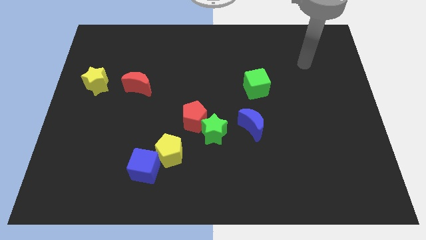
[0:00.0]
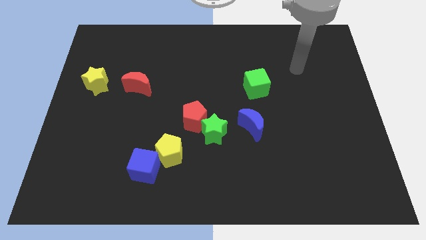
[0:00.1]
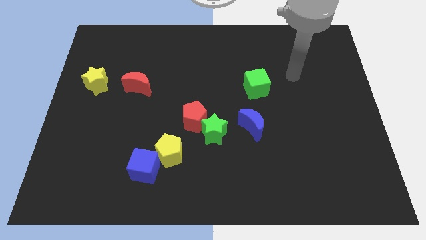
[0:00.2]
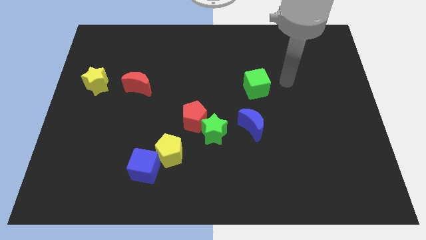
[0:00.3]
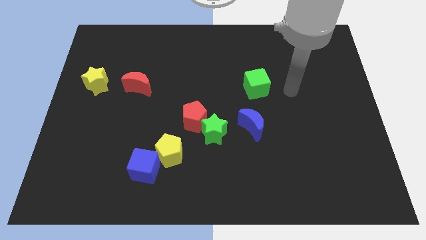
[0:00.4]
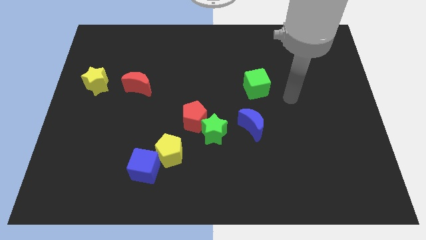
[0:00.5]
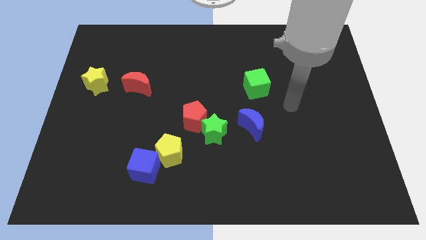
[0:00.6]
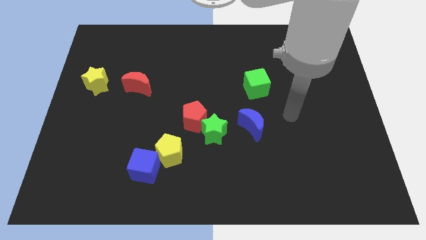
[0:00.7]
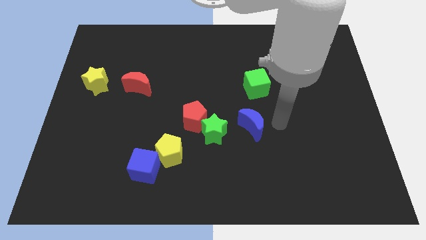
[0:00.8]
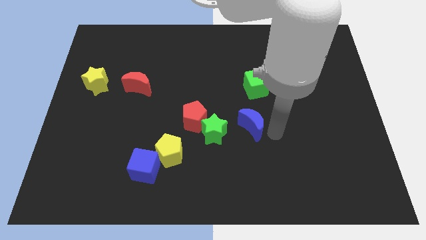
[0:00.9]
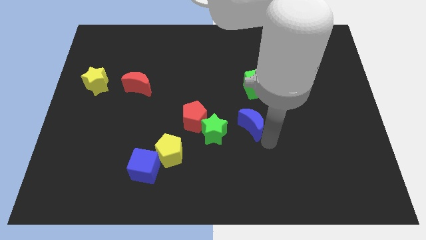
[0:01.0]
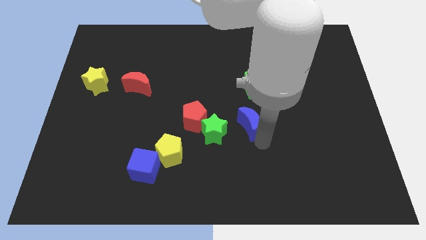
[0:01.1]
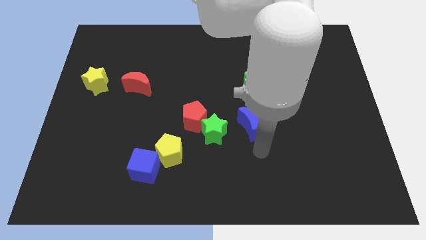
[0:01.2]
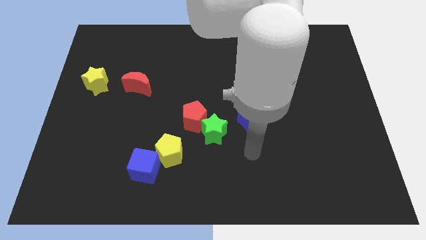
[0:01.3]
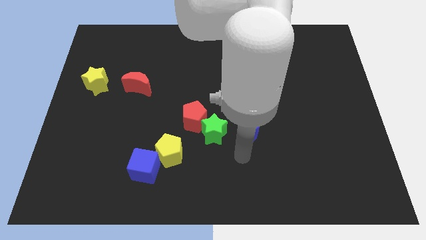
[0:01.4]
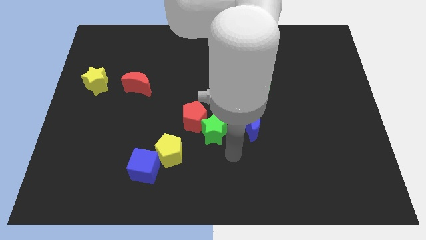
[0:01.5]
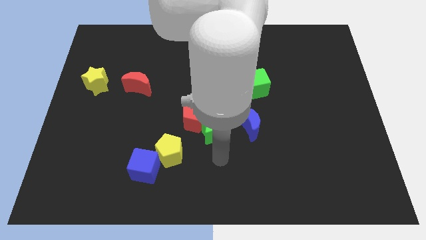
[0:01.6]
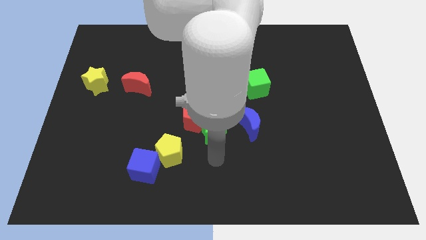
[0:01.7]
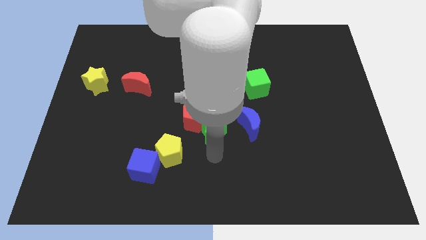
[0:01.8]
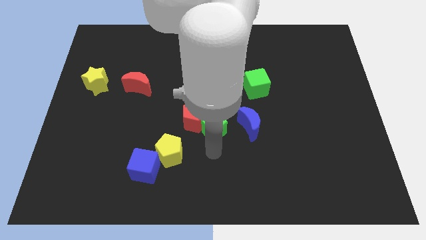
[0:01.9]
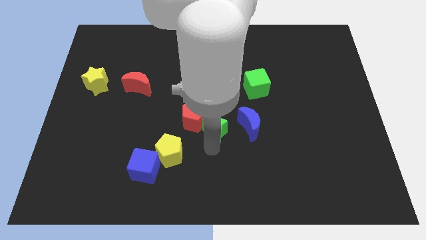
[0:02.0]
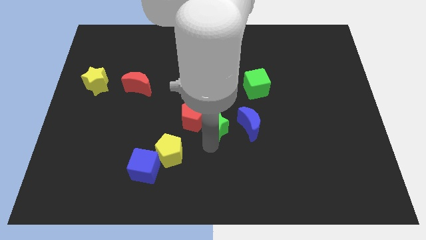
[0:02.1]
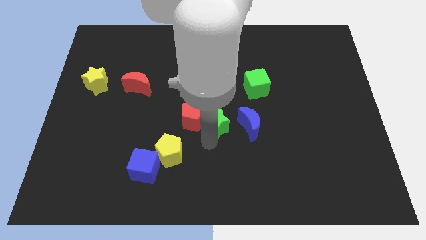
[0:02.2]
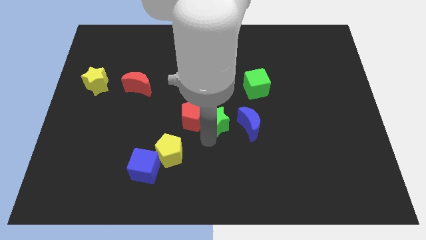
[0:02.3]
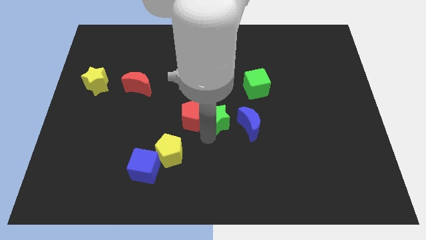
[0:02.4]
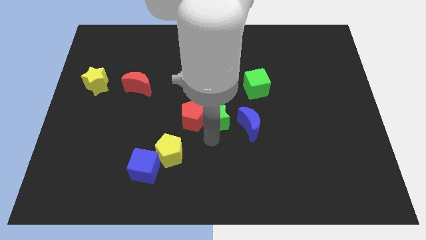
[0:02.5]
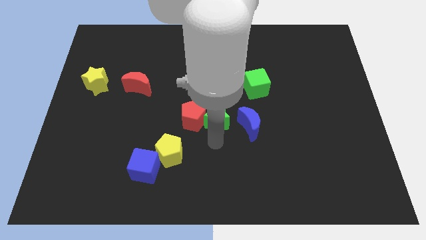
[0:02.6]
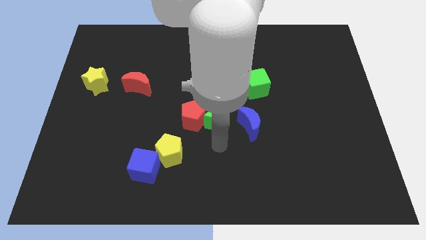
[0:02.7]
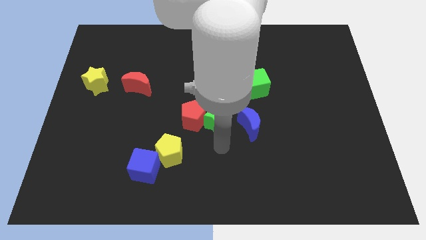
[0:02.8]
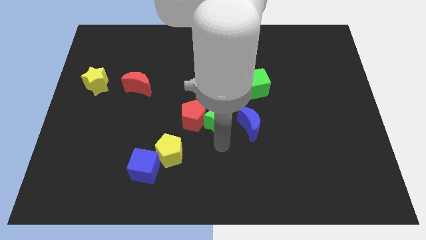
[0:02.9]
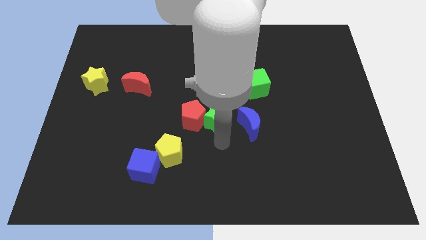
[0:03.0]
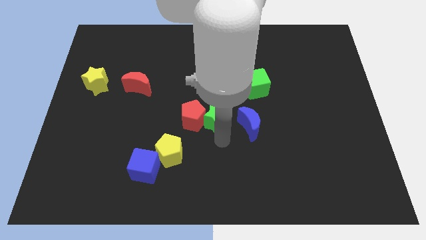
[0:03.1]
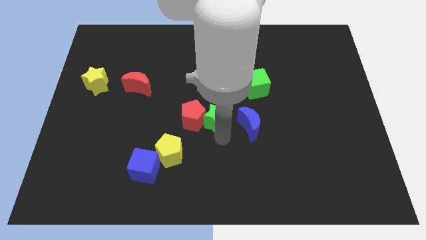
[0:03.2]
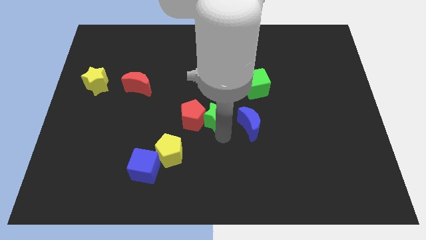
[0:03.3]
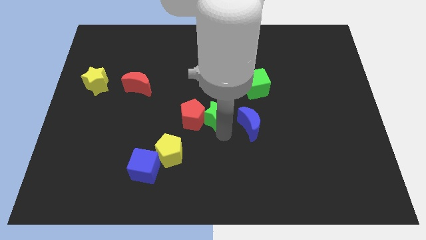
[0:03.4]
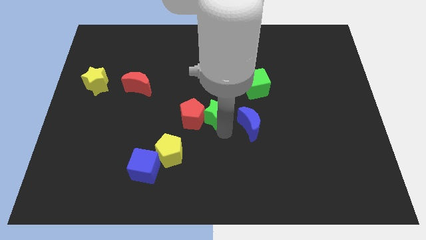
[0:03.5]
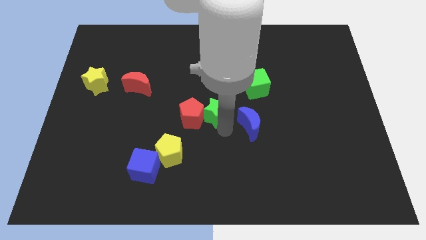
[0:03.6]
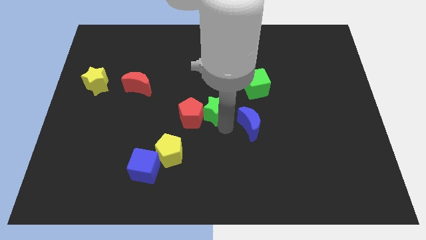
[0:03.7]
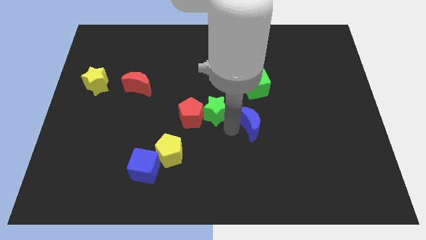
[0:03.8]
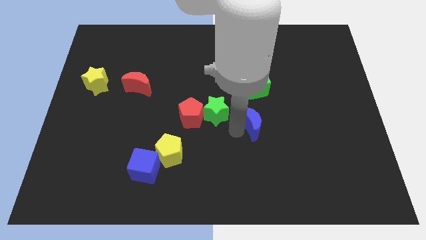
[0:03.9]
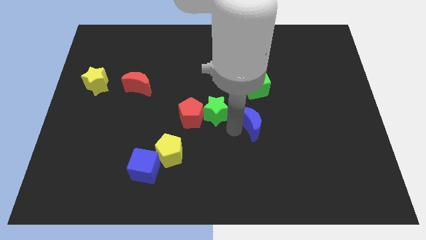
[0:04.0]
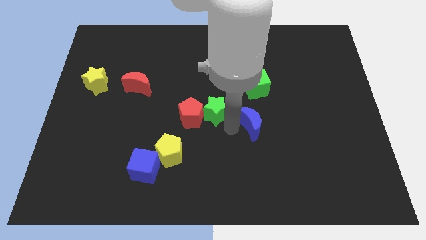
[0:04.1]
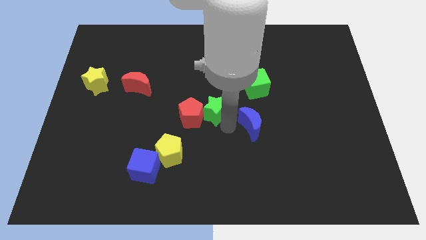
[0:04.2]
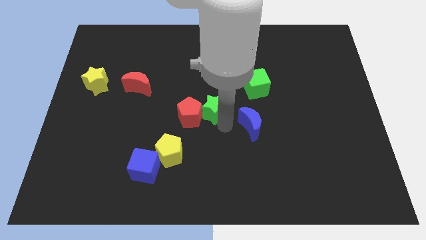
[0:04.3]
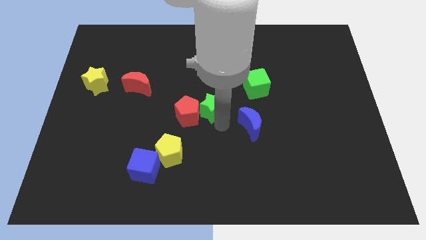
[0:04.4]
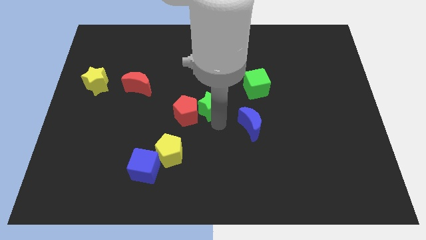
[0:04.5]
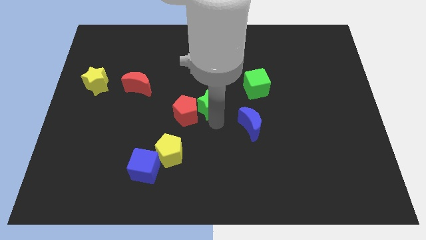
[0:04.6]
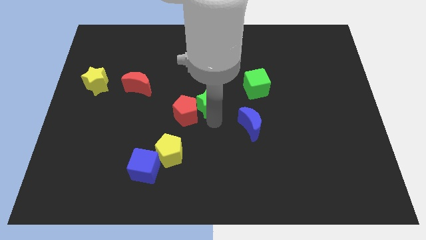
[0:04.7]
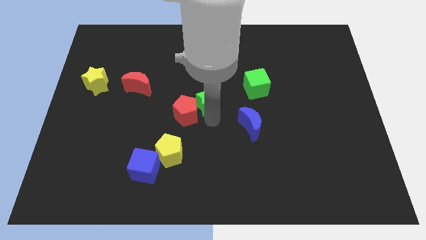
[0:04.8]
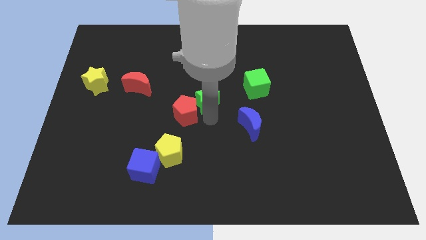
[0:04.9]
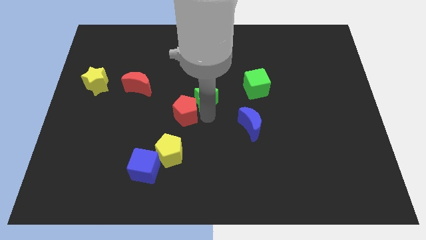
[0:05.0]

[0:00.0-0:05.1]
move the green star a bit upwards and to the left diagonally

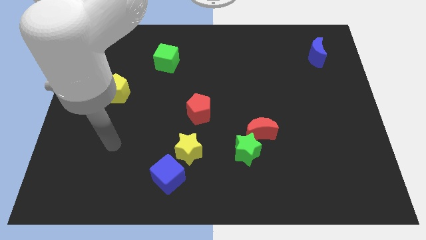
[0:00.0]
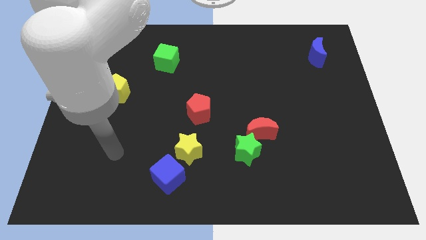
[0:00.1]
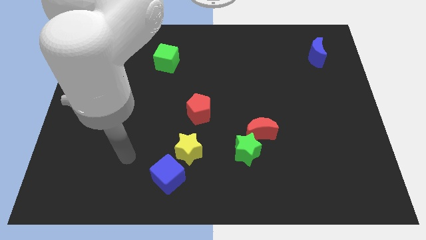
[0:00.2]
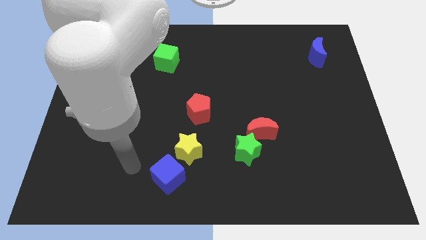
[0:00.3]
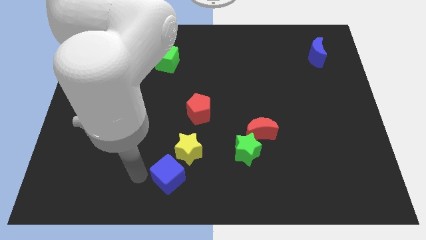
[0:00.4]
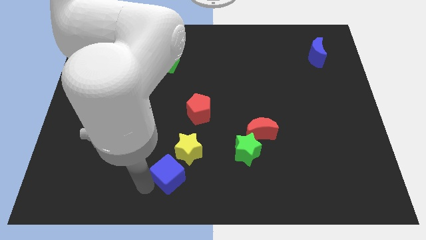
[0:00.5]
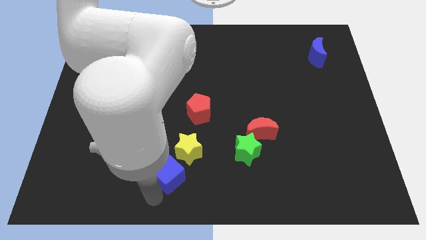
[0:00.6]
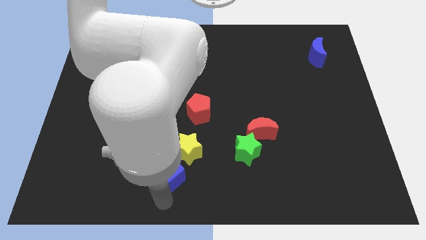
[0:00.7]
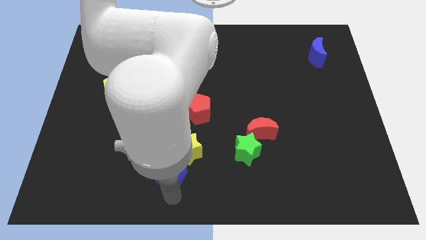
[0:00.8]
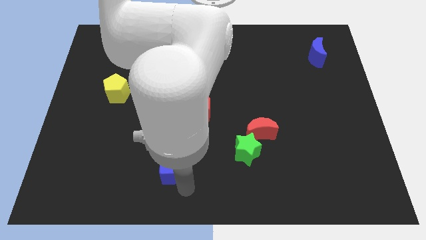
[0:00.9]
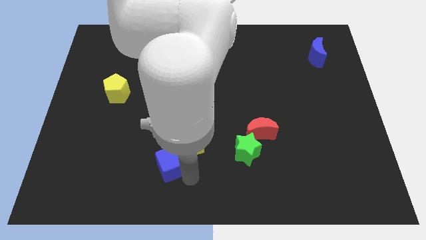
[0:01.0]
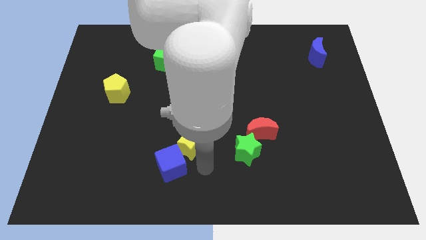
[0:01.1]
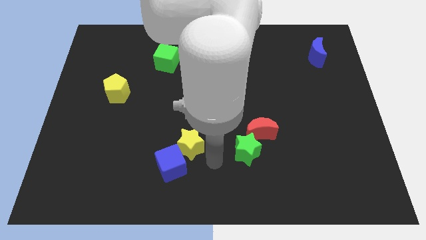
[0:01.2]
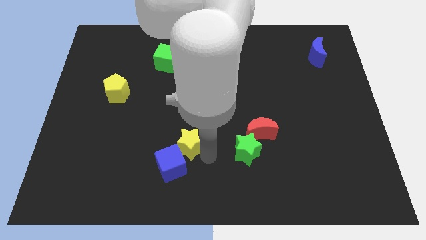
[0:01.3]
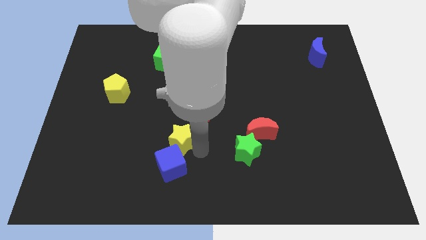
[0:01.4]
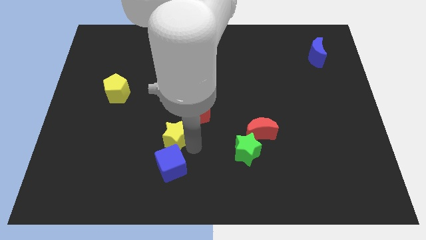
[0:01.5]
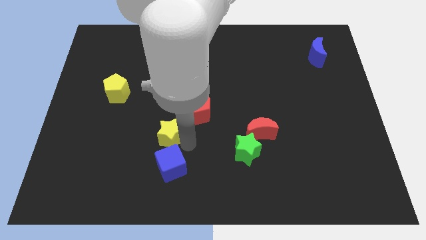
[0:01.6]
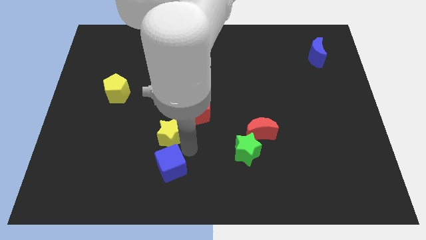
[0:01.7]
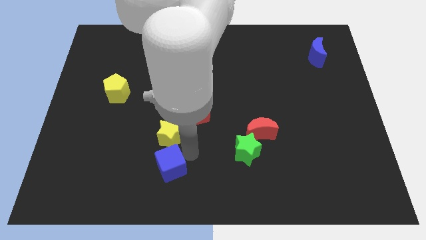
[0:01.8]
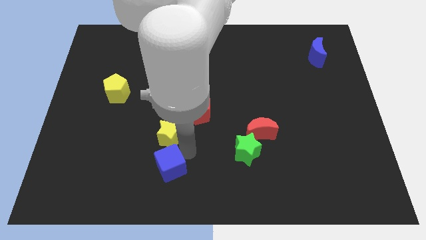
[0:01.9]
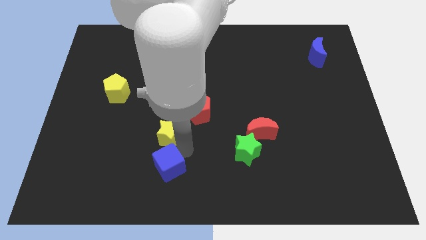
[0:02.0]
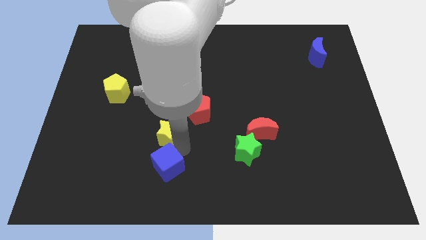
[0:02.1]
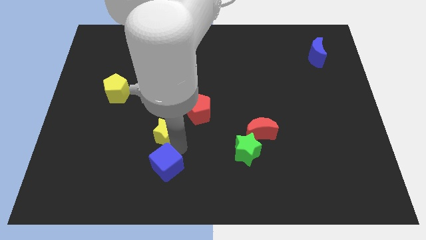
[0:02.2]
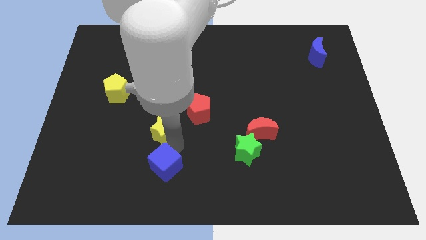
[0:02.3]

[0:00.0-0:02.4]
push the yellow star up and left slightly

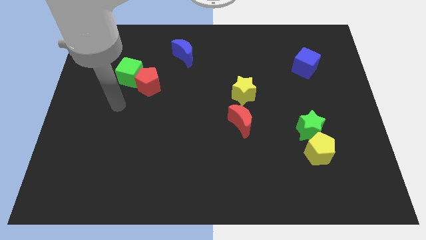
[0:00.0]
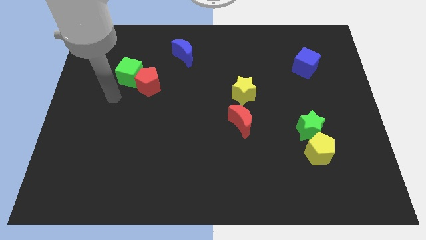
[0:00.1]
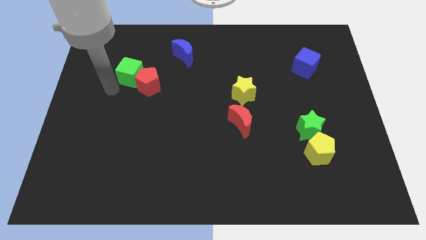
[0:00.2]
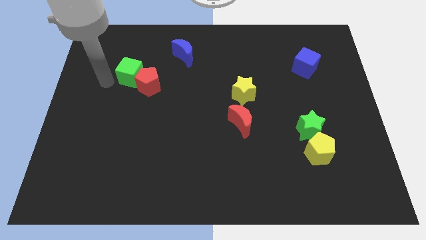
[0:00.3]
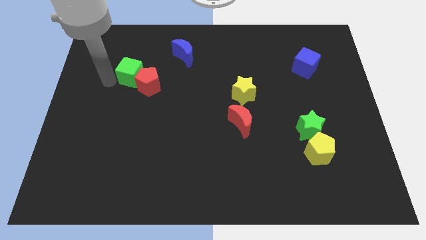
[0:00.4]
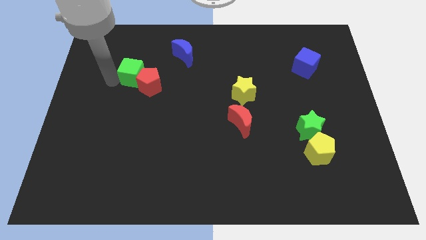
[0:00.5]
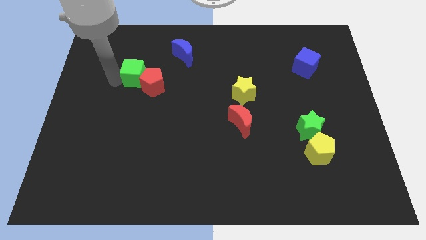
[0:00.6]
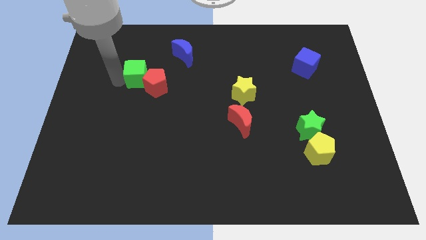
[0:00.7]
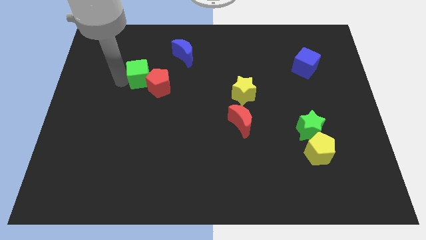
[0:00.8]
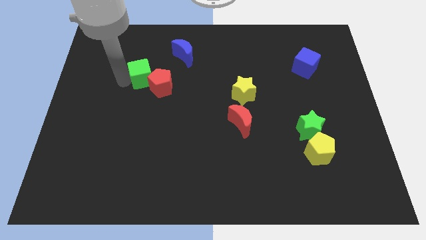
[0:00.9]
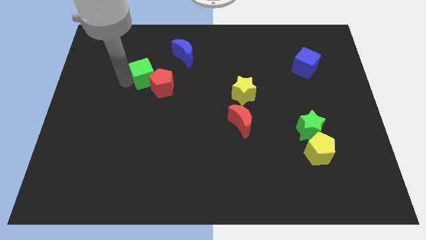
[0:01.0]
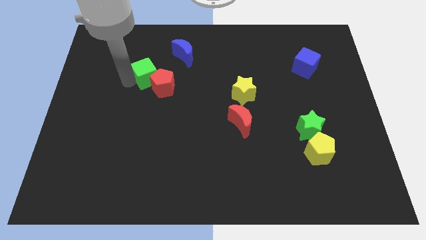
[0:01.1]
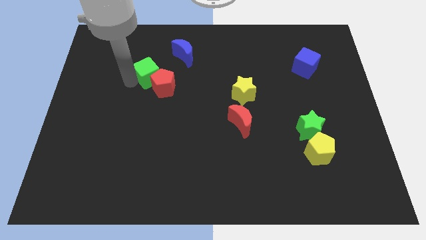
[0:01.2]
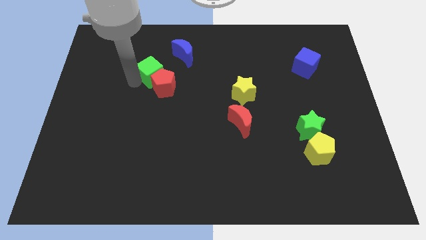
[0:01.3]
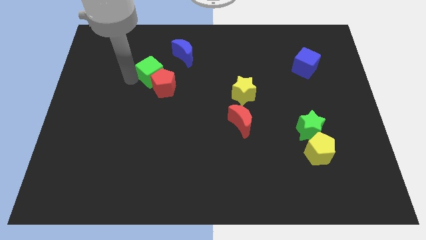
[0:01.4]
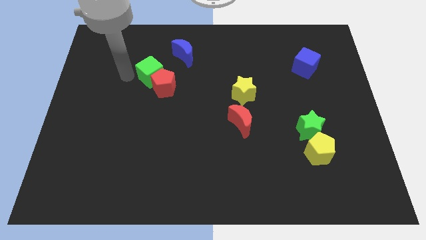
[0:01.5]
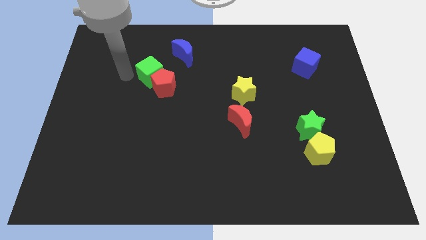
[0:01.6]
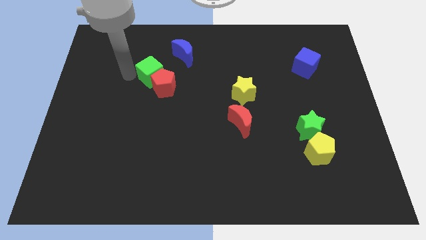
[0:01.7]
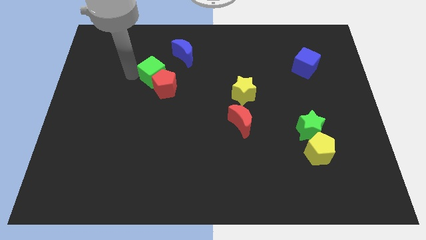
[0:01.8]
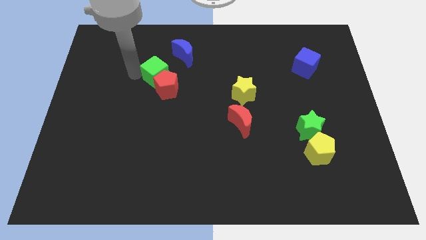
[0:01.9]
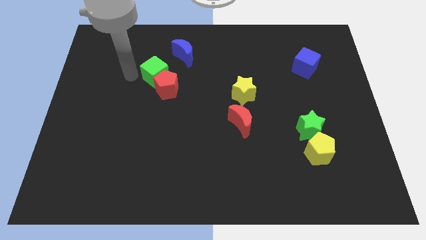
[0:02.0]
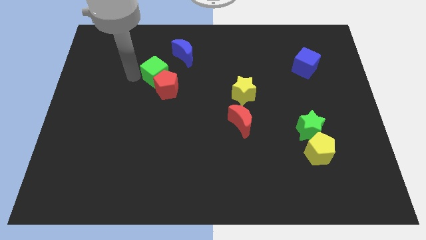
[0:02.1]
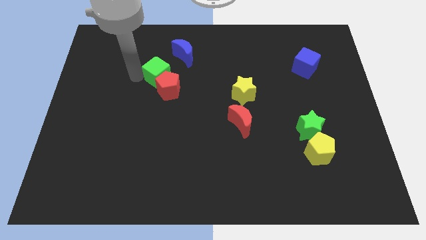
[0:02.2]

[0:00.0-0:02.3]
slightly slide the green cube to the right
